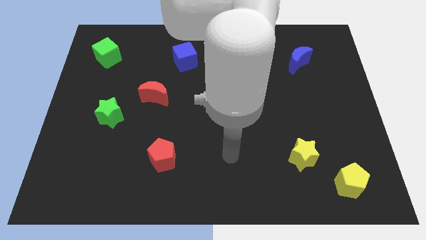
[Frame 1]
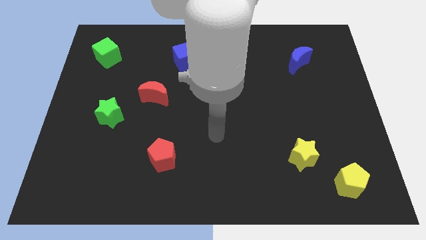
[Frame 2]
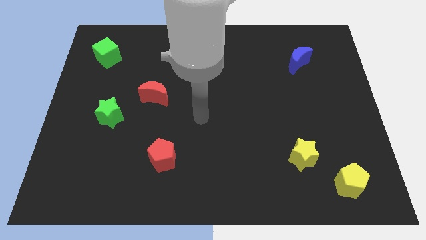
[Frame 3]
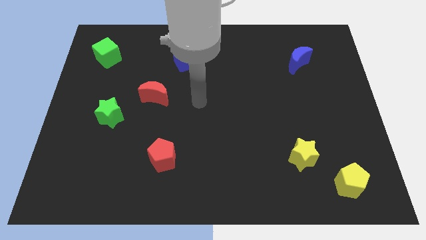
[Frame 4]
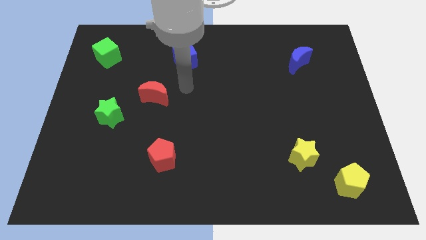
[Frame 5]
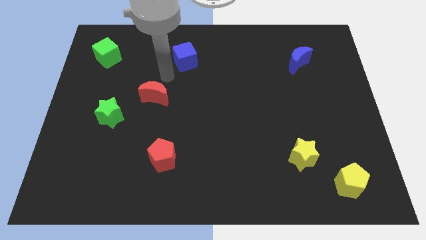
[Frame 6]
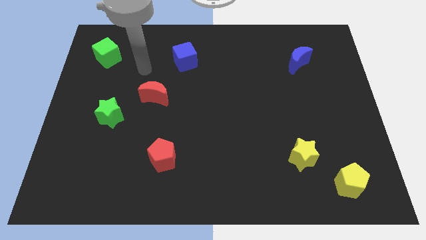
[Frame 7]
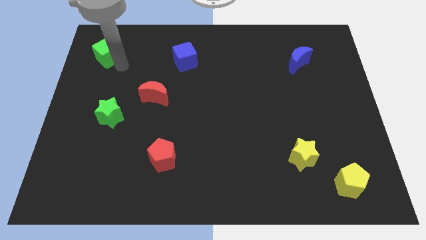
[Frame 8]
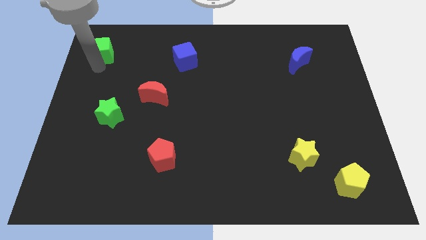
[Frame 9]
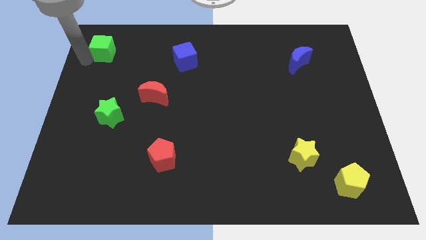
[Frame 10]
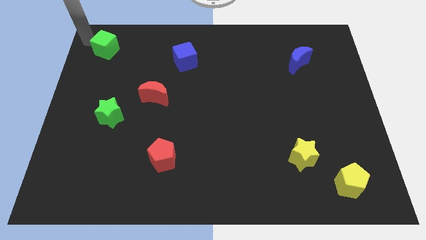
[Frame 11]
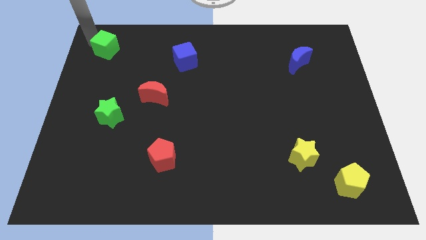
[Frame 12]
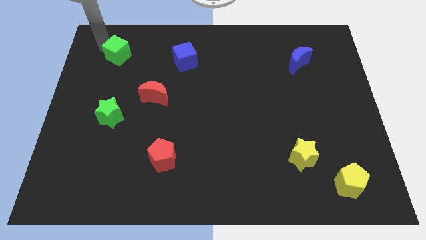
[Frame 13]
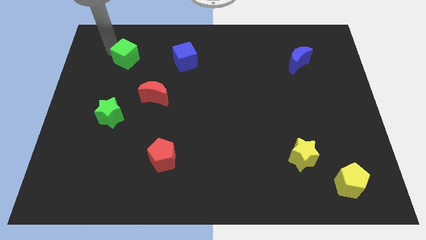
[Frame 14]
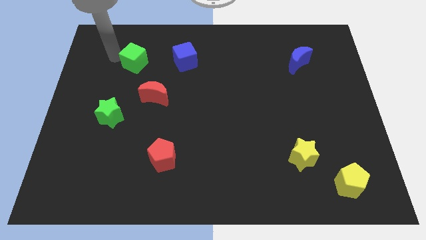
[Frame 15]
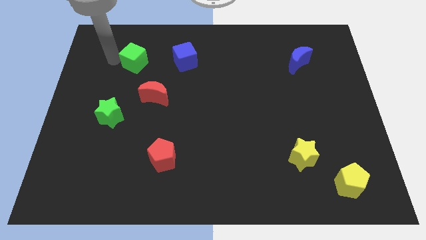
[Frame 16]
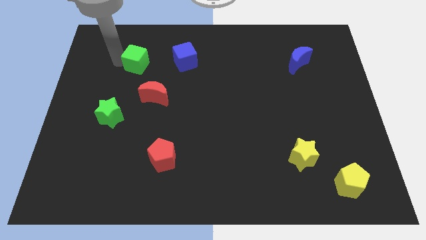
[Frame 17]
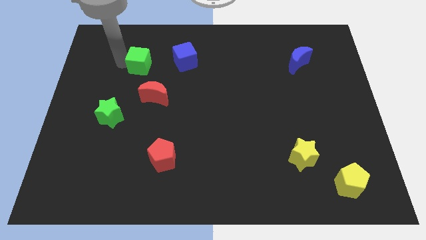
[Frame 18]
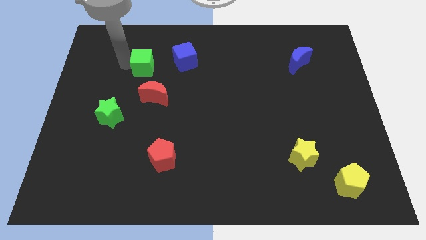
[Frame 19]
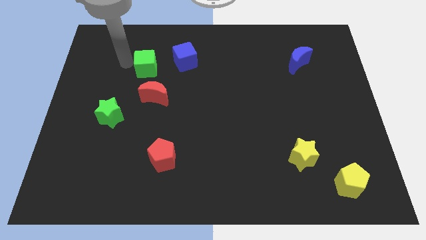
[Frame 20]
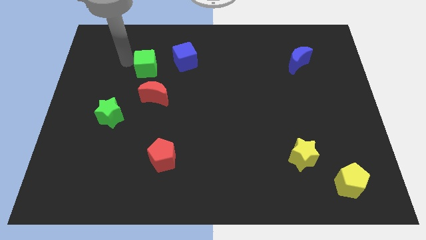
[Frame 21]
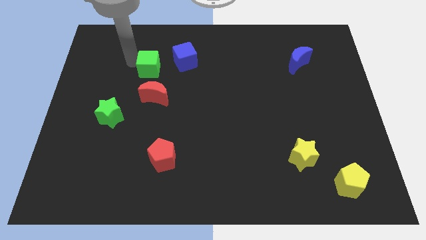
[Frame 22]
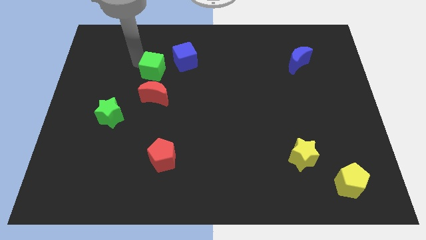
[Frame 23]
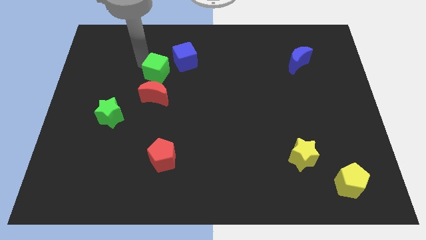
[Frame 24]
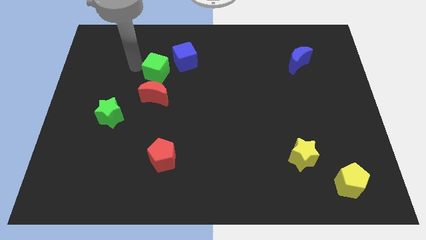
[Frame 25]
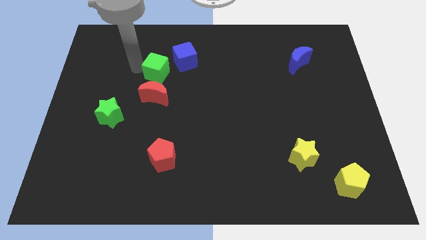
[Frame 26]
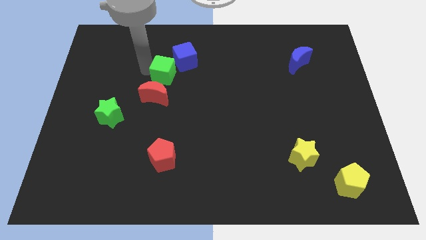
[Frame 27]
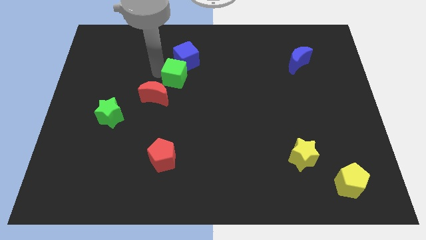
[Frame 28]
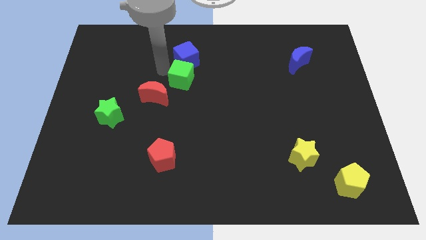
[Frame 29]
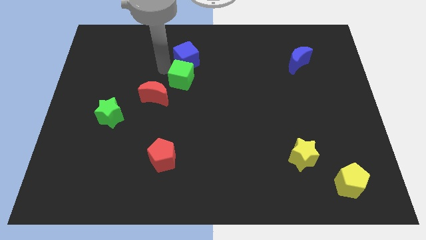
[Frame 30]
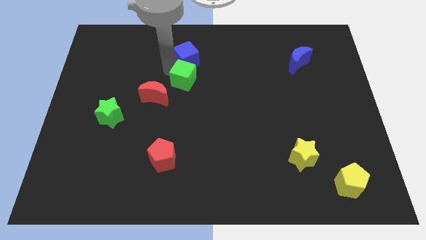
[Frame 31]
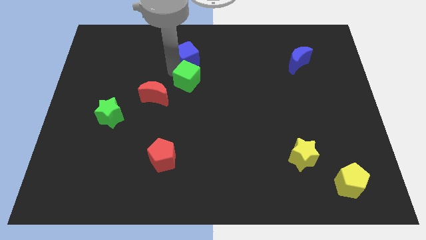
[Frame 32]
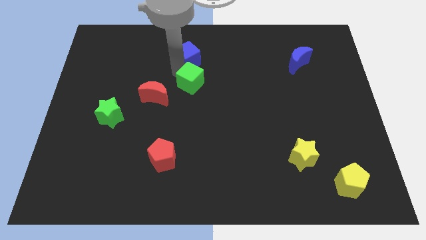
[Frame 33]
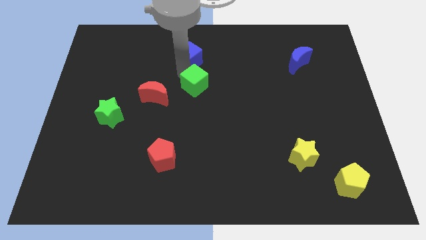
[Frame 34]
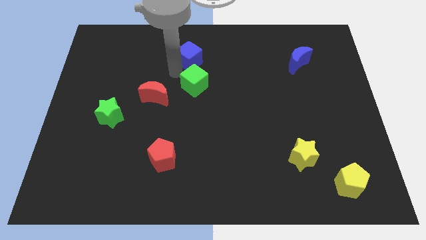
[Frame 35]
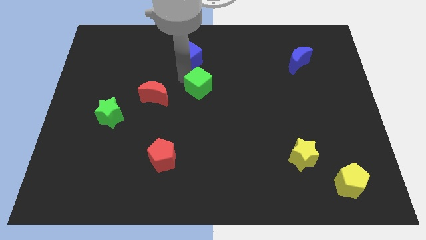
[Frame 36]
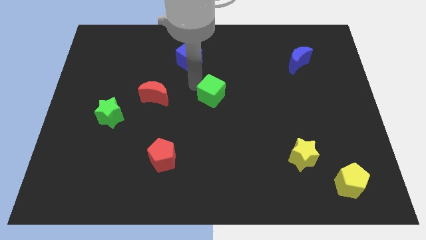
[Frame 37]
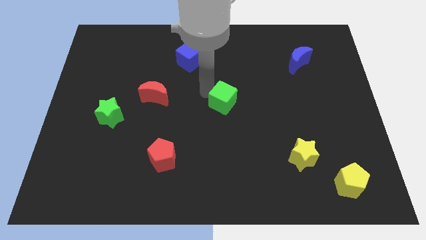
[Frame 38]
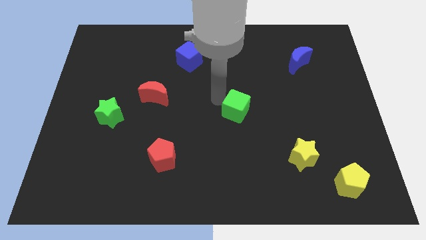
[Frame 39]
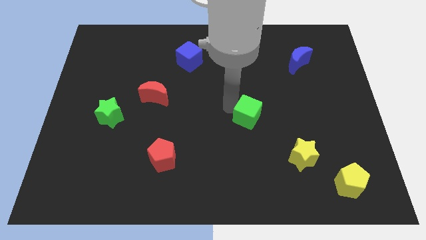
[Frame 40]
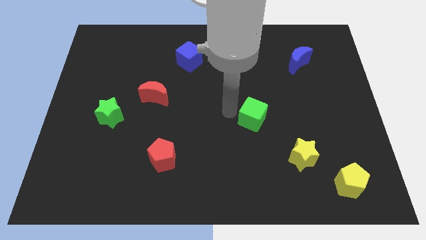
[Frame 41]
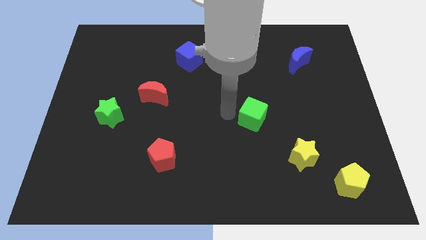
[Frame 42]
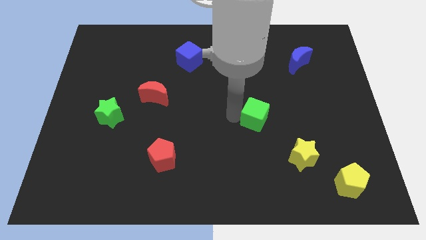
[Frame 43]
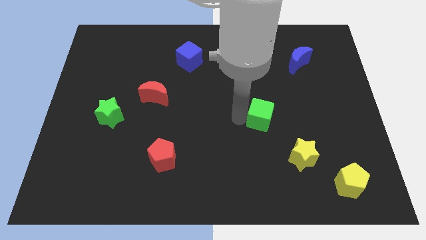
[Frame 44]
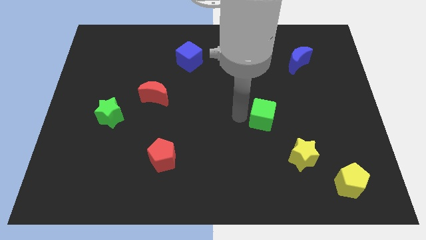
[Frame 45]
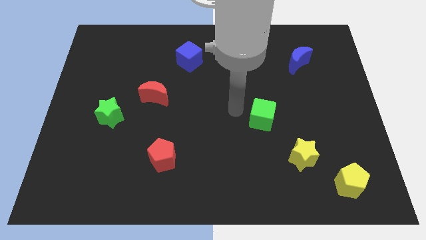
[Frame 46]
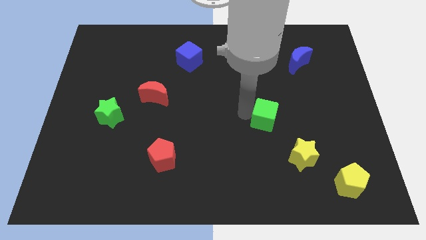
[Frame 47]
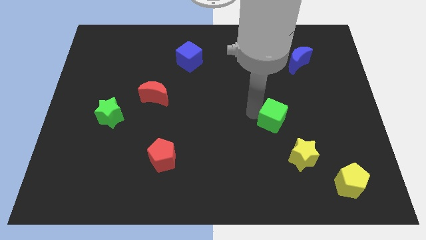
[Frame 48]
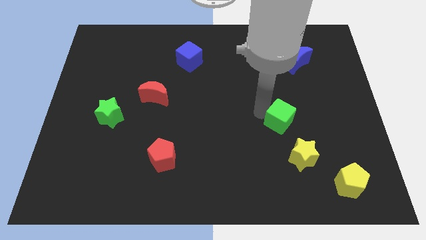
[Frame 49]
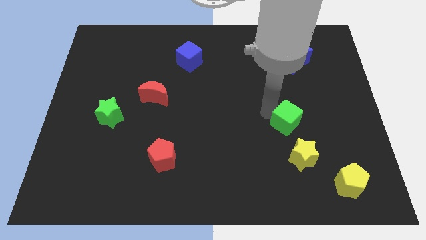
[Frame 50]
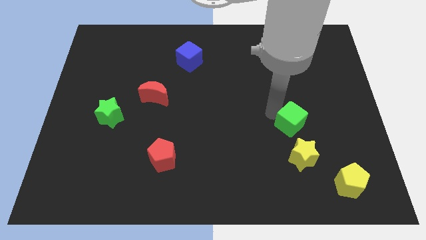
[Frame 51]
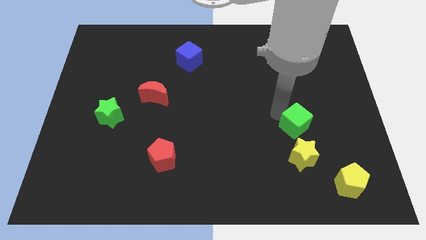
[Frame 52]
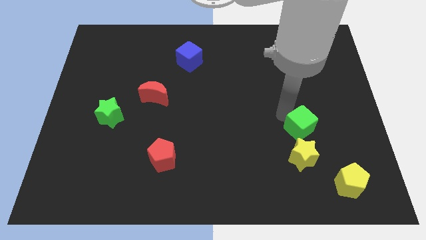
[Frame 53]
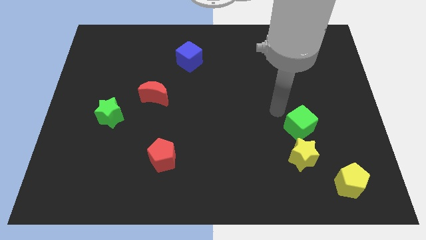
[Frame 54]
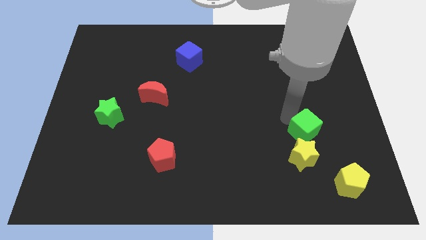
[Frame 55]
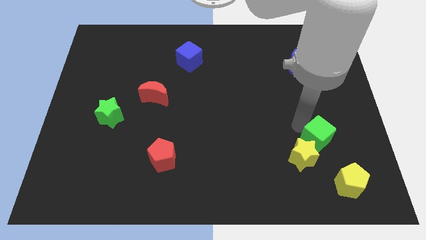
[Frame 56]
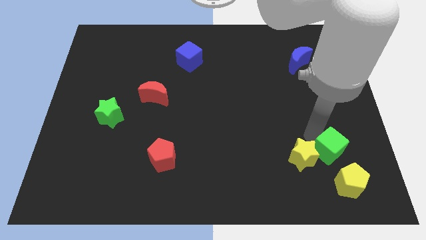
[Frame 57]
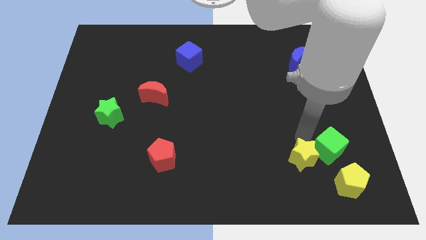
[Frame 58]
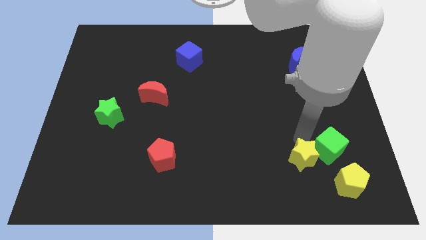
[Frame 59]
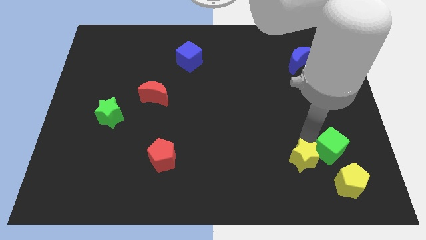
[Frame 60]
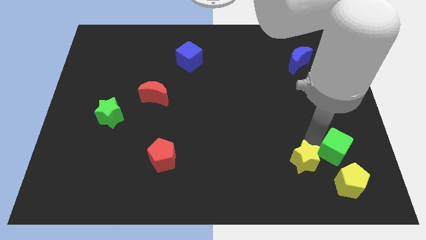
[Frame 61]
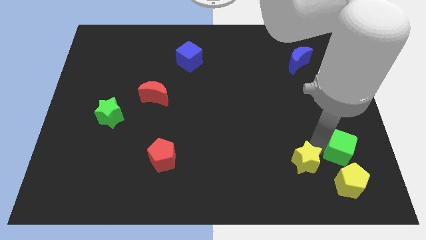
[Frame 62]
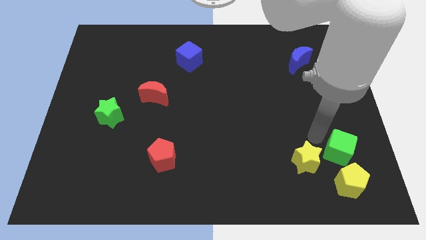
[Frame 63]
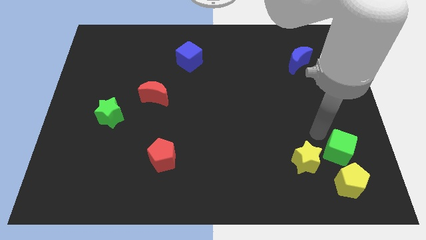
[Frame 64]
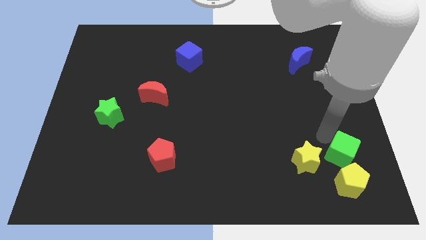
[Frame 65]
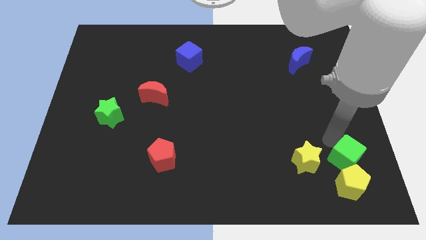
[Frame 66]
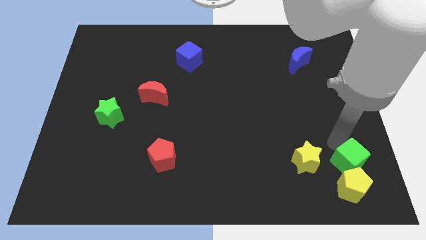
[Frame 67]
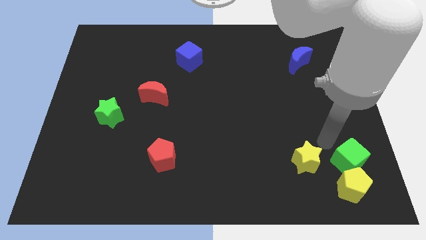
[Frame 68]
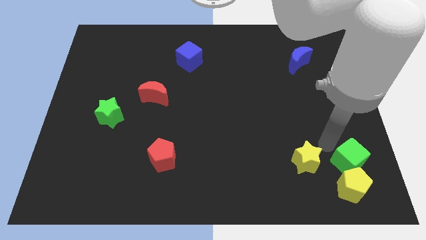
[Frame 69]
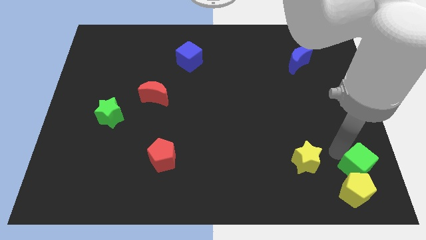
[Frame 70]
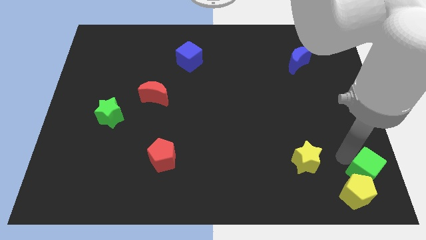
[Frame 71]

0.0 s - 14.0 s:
put the green cube to the bottom right of the board
